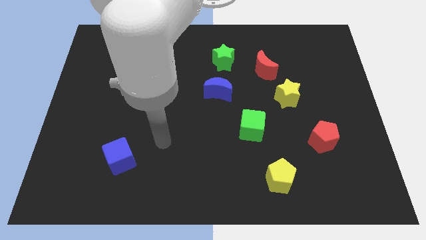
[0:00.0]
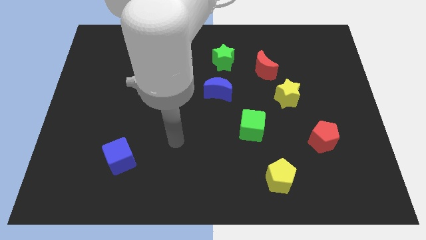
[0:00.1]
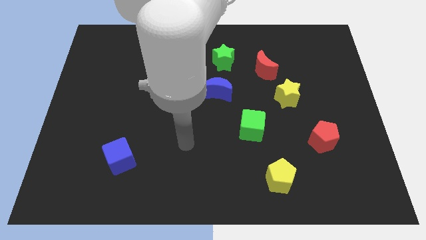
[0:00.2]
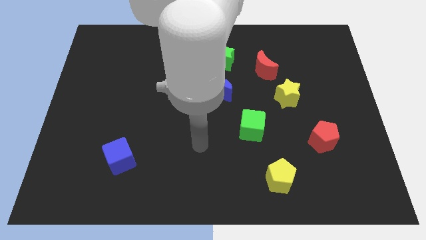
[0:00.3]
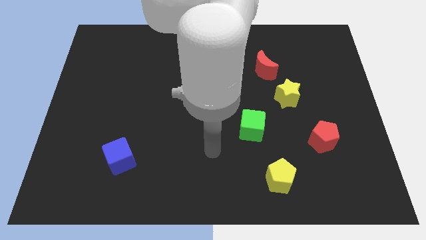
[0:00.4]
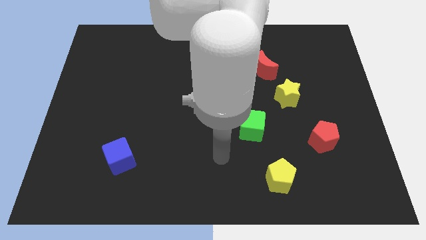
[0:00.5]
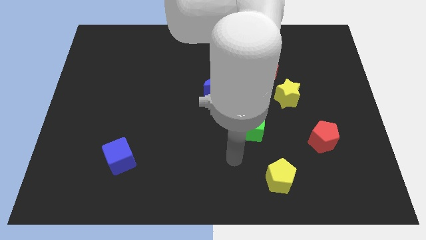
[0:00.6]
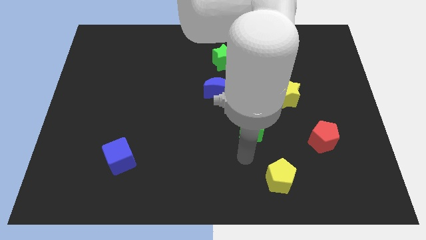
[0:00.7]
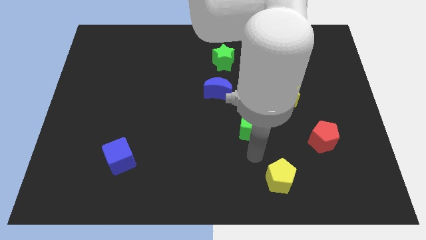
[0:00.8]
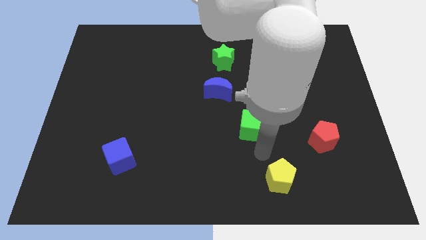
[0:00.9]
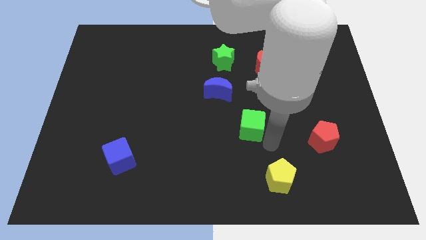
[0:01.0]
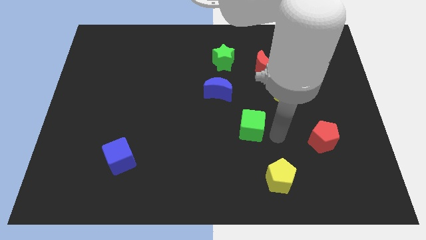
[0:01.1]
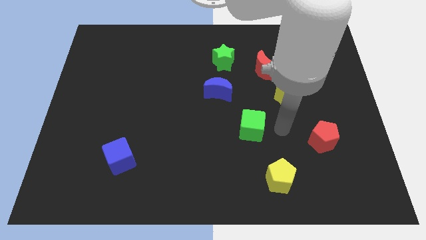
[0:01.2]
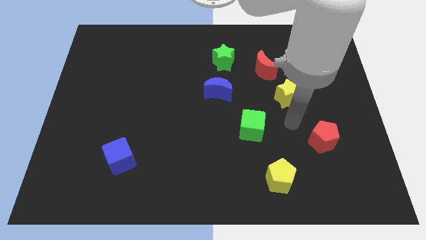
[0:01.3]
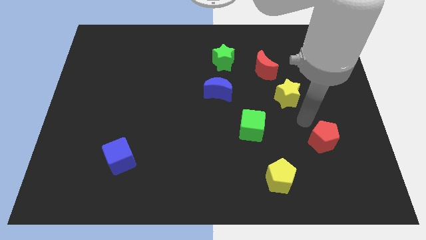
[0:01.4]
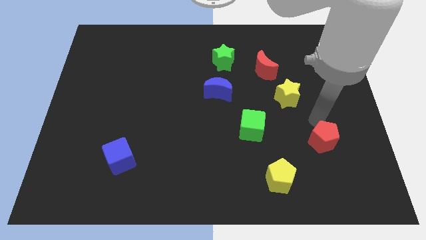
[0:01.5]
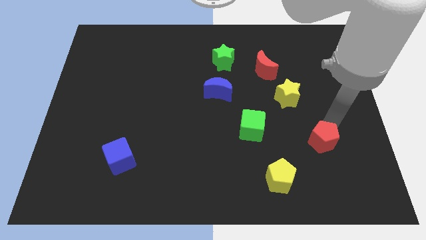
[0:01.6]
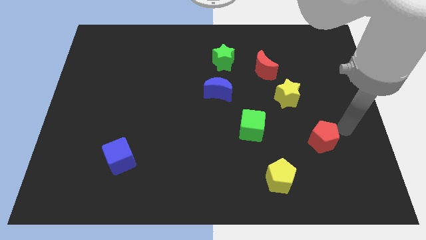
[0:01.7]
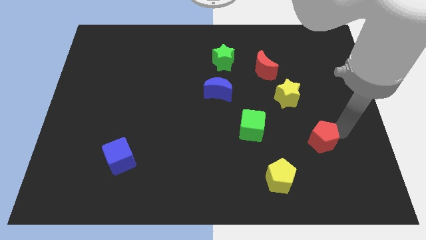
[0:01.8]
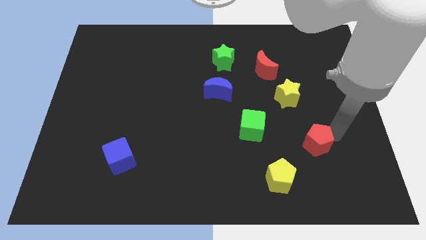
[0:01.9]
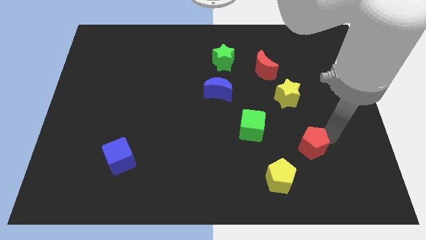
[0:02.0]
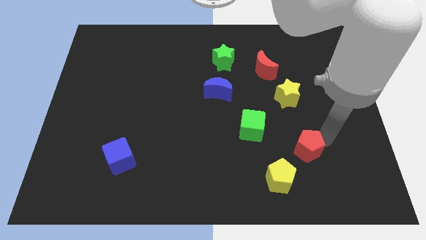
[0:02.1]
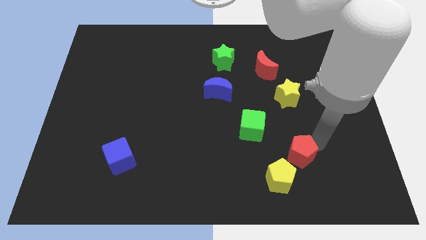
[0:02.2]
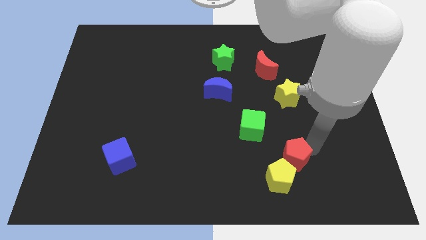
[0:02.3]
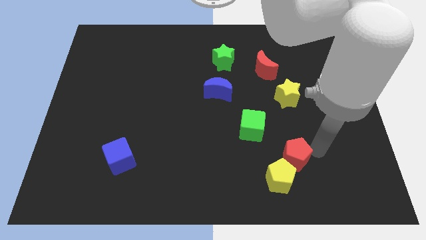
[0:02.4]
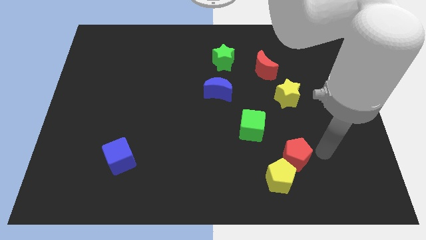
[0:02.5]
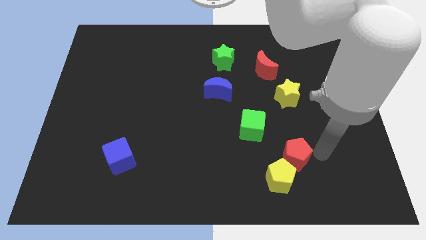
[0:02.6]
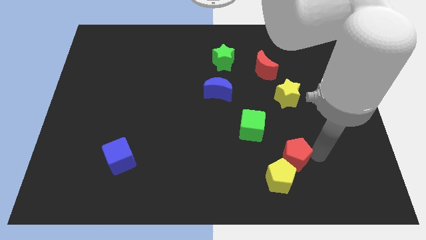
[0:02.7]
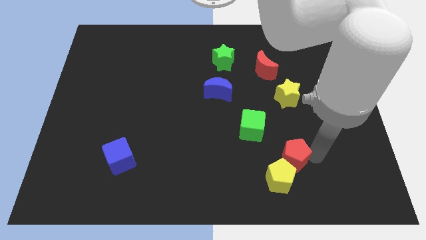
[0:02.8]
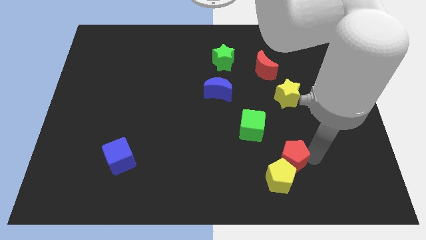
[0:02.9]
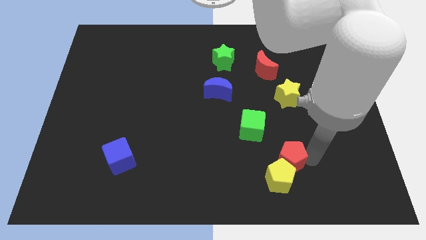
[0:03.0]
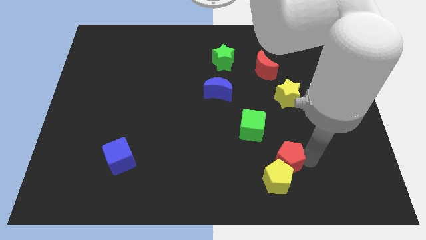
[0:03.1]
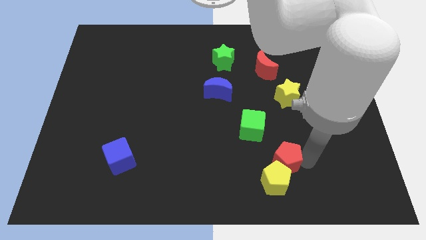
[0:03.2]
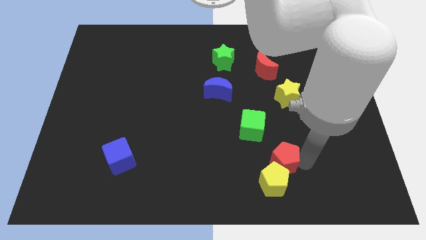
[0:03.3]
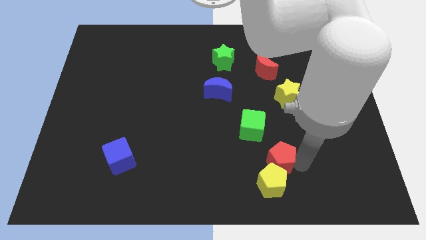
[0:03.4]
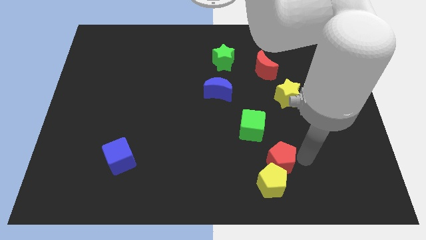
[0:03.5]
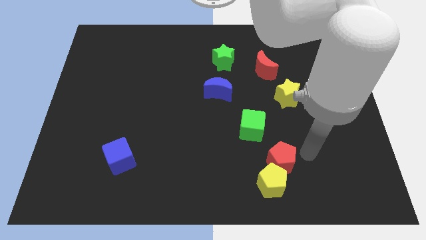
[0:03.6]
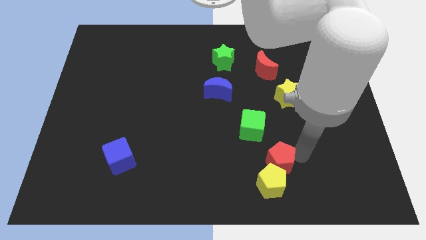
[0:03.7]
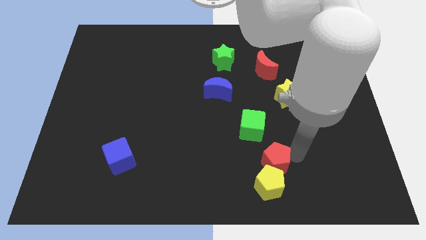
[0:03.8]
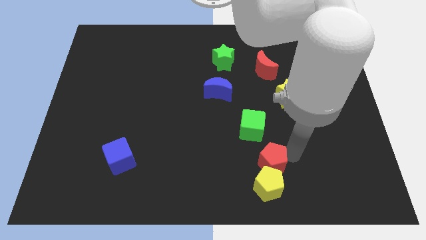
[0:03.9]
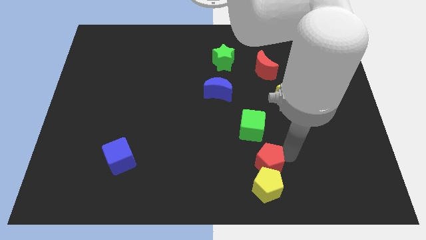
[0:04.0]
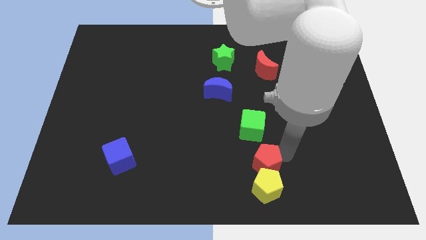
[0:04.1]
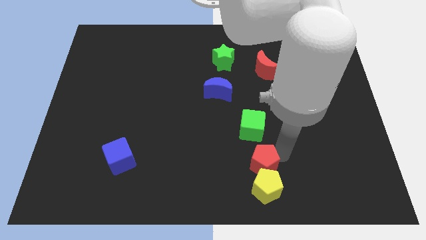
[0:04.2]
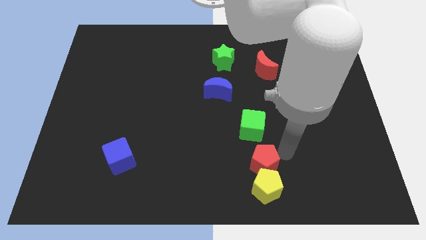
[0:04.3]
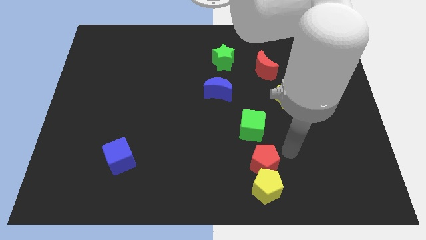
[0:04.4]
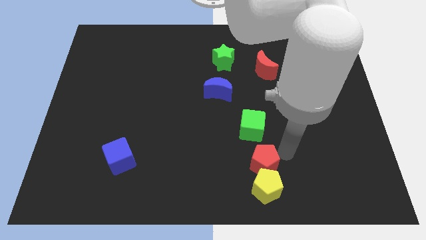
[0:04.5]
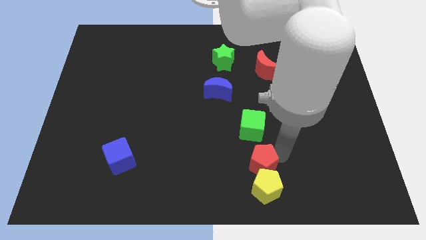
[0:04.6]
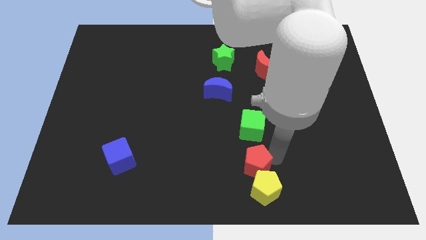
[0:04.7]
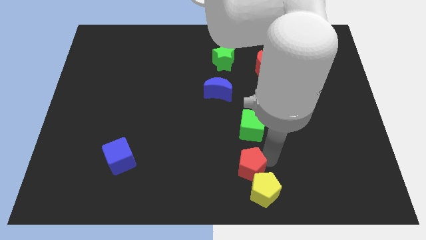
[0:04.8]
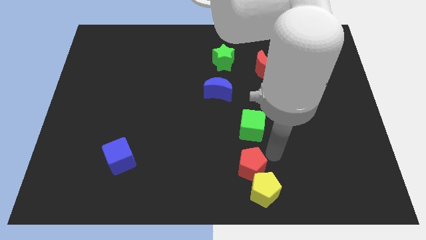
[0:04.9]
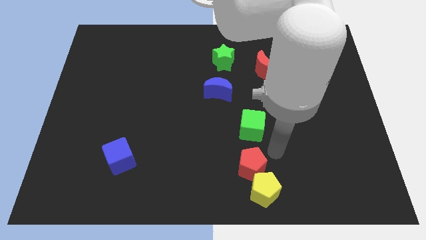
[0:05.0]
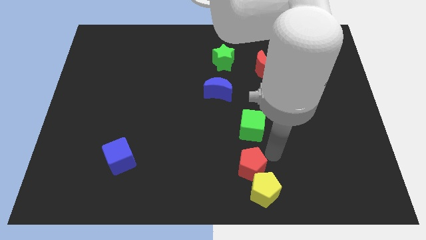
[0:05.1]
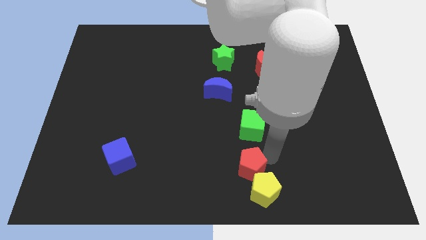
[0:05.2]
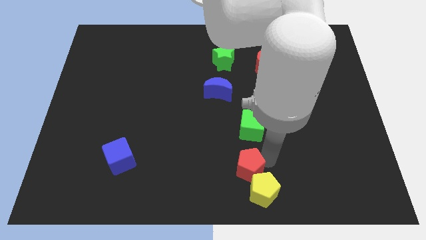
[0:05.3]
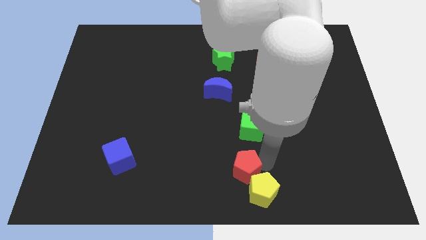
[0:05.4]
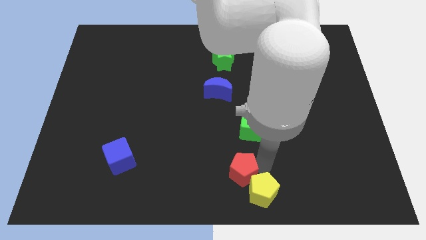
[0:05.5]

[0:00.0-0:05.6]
put the red pentagon to the left of the yellow pentagon
